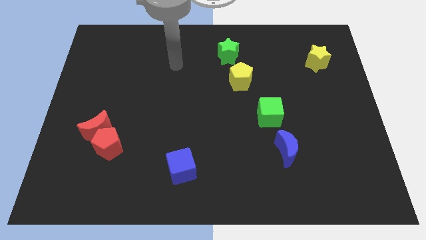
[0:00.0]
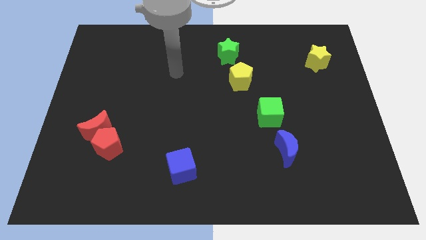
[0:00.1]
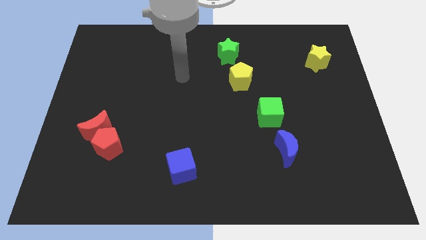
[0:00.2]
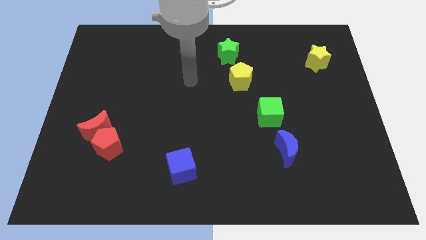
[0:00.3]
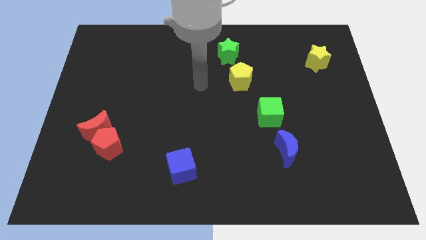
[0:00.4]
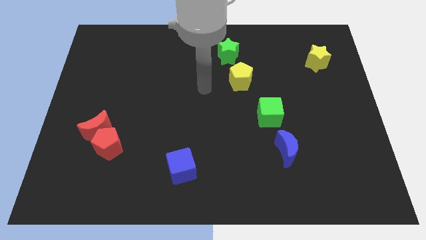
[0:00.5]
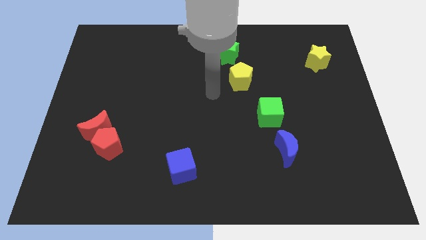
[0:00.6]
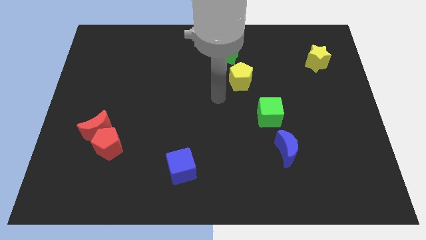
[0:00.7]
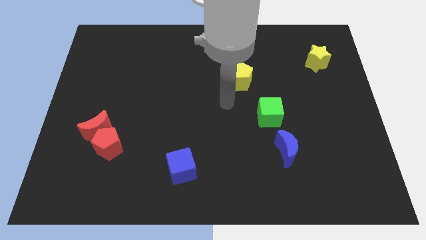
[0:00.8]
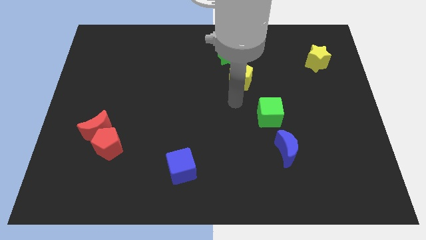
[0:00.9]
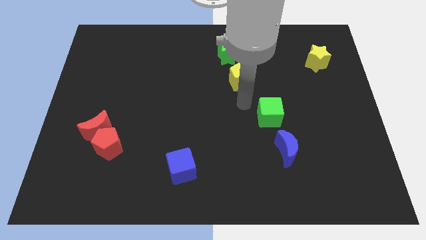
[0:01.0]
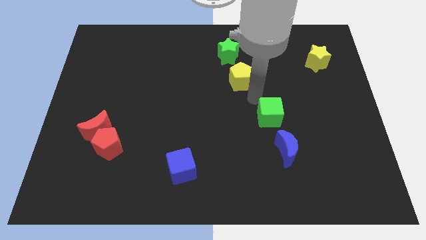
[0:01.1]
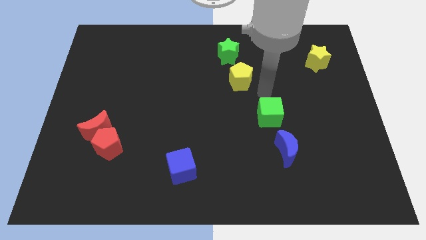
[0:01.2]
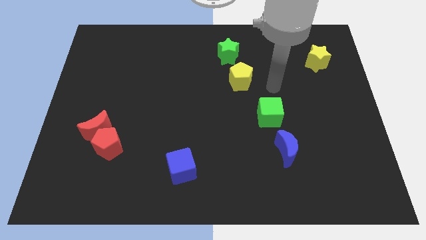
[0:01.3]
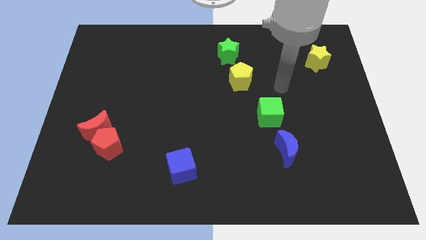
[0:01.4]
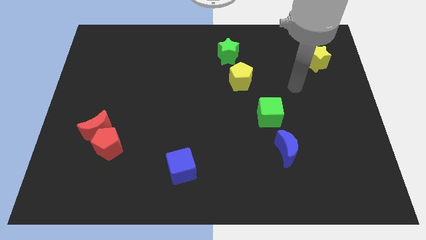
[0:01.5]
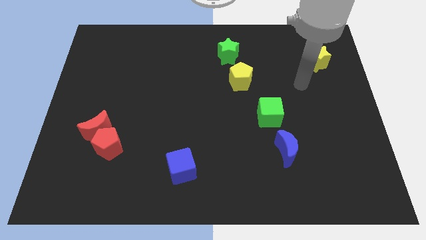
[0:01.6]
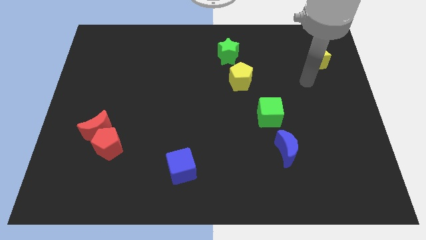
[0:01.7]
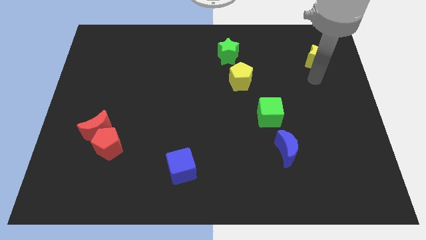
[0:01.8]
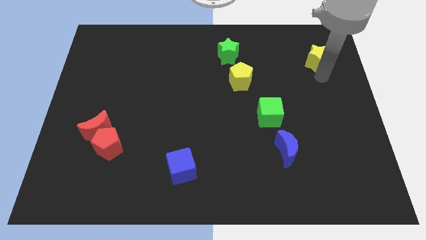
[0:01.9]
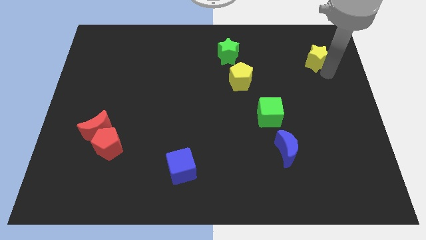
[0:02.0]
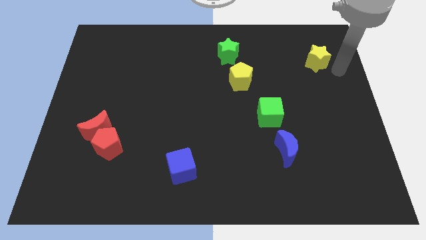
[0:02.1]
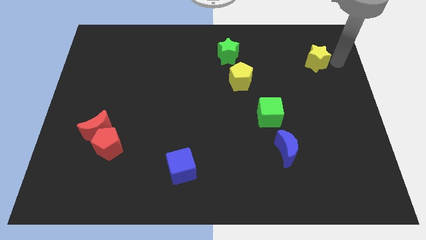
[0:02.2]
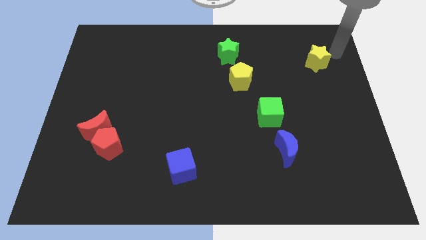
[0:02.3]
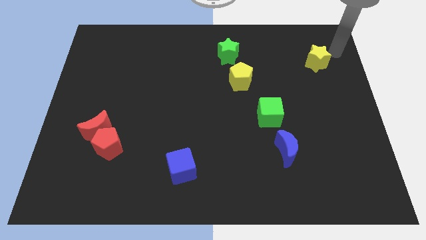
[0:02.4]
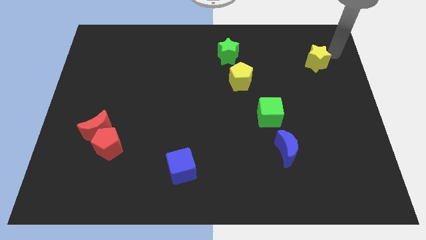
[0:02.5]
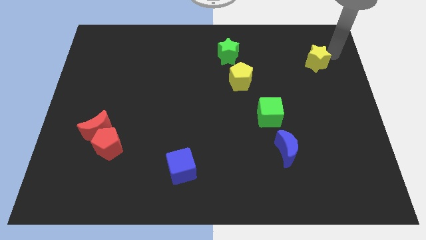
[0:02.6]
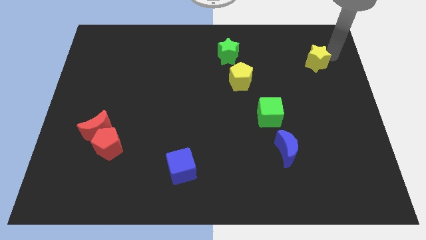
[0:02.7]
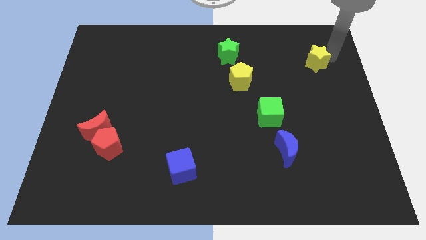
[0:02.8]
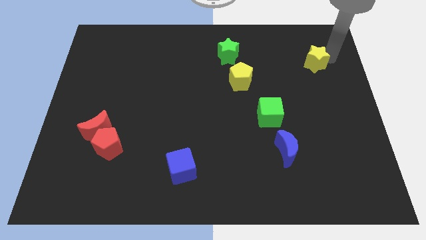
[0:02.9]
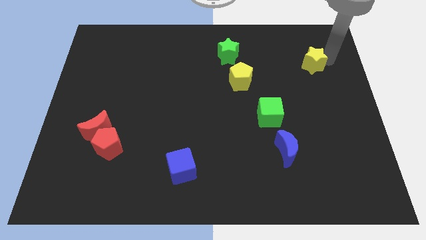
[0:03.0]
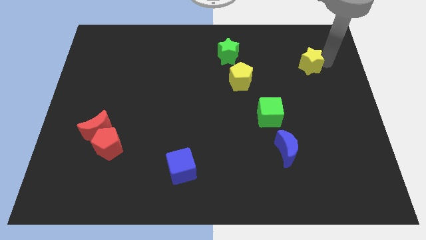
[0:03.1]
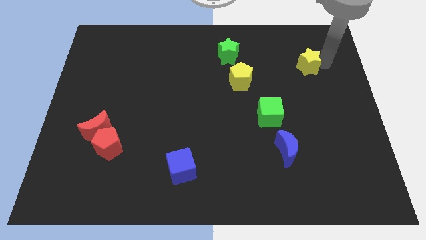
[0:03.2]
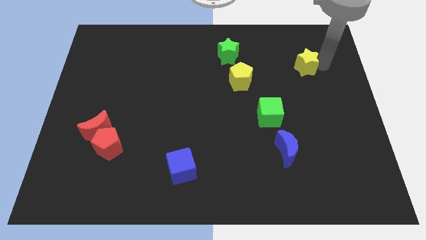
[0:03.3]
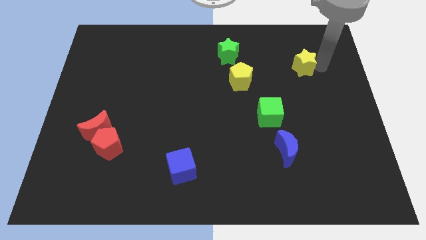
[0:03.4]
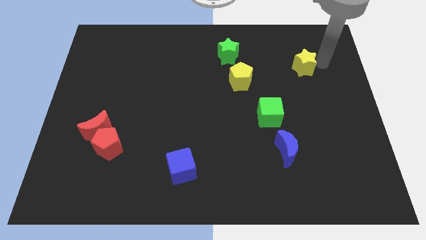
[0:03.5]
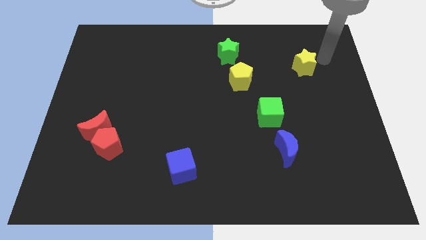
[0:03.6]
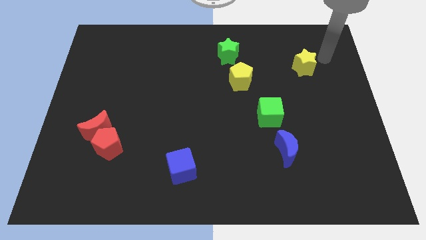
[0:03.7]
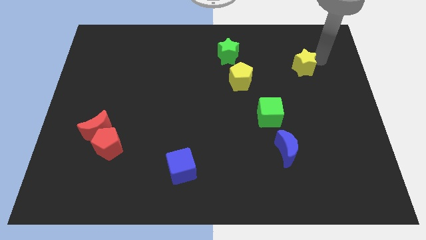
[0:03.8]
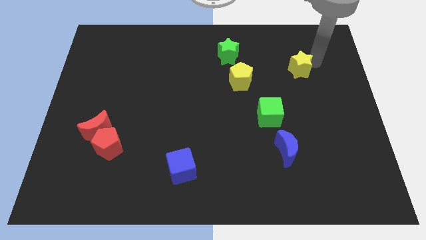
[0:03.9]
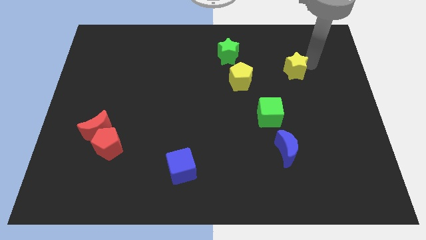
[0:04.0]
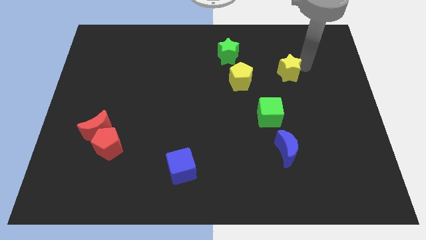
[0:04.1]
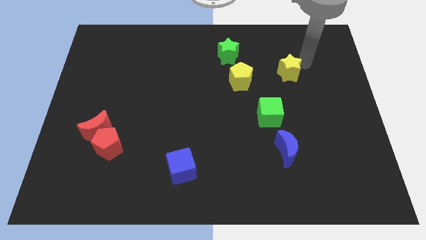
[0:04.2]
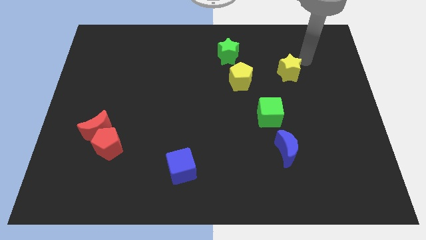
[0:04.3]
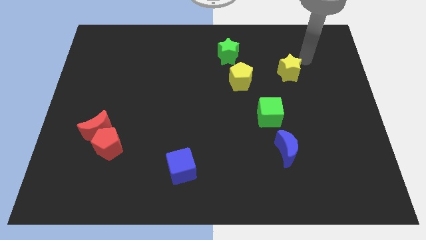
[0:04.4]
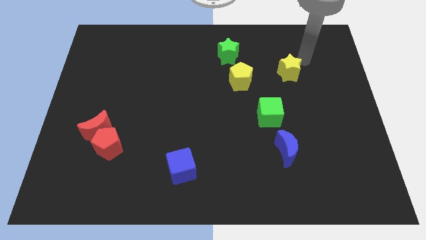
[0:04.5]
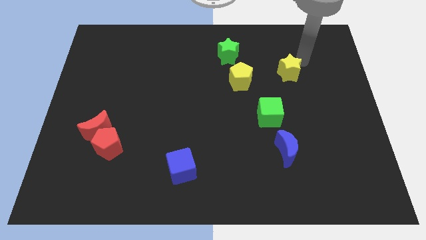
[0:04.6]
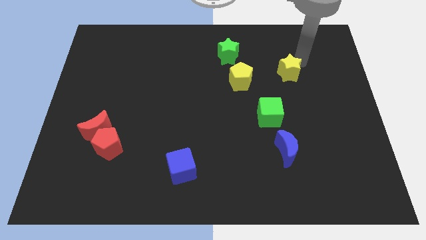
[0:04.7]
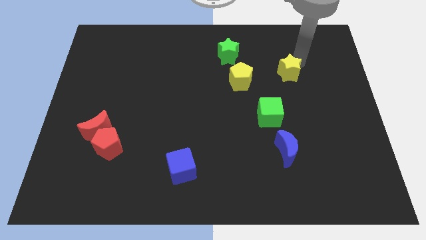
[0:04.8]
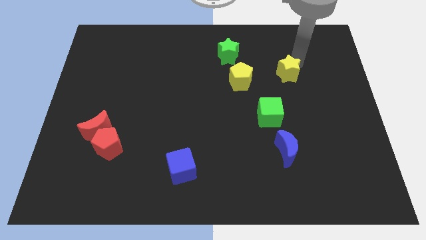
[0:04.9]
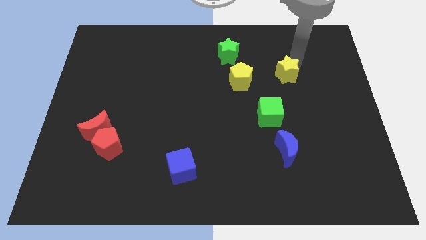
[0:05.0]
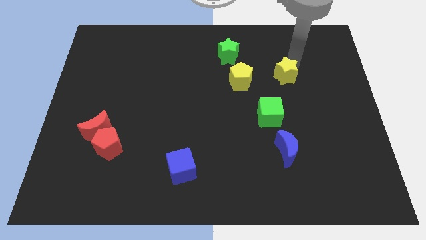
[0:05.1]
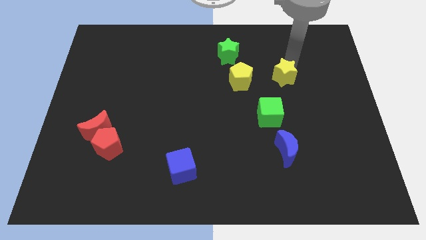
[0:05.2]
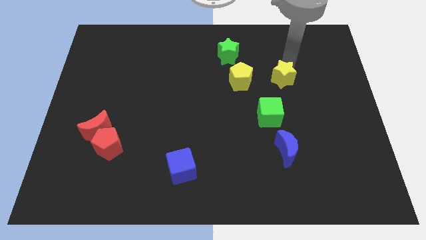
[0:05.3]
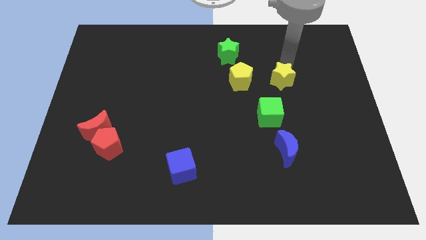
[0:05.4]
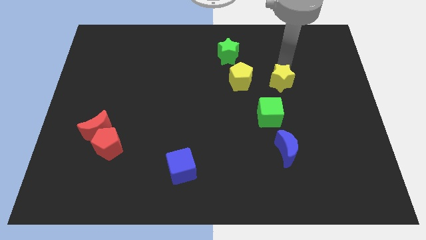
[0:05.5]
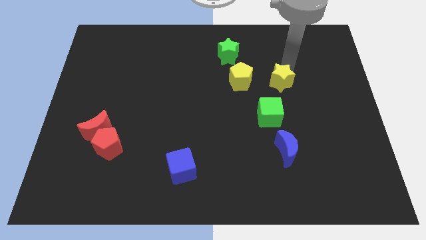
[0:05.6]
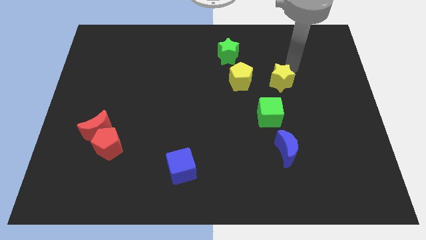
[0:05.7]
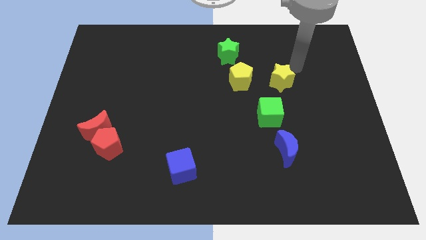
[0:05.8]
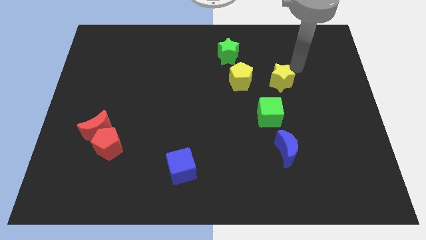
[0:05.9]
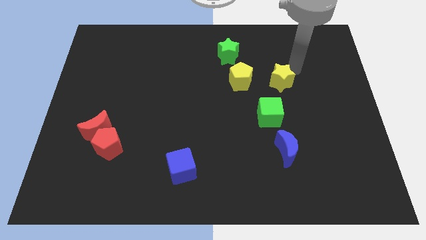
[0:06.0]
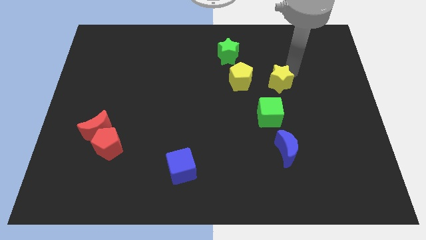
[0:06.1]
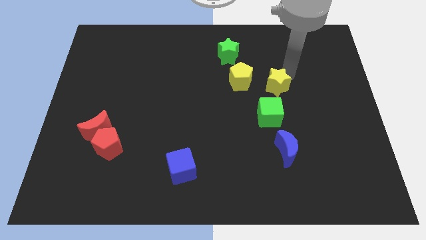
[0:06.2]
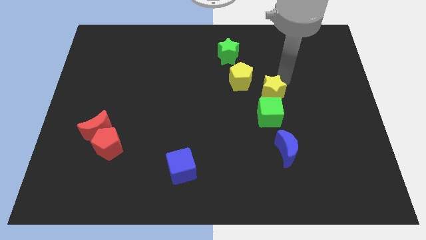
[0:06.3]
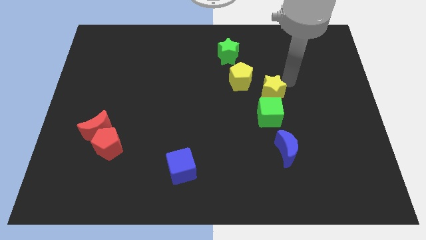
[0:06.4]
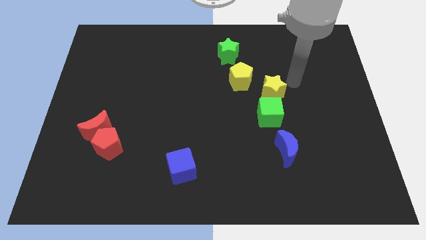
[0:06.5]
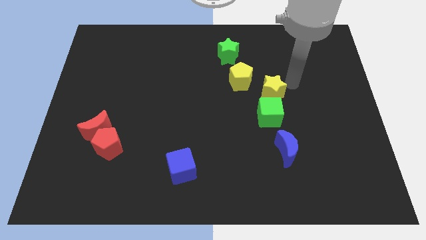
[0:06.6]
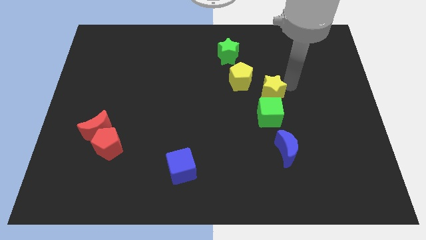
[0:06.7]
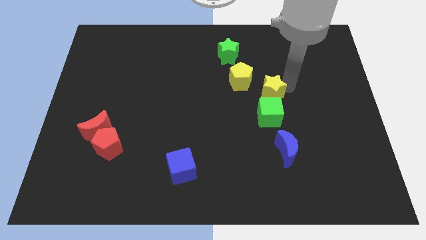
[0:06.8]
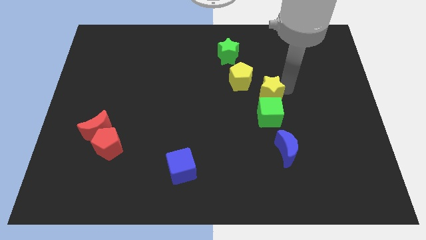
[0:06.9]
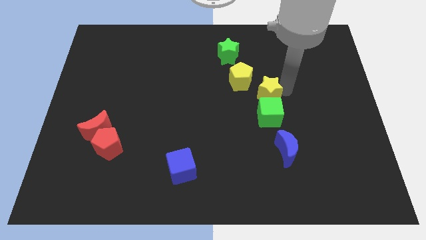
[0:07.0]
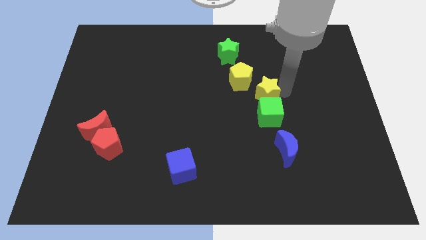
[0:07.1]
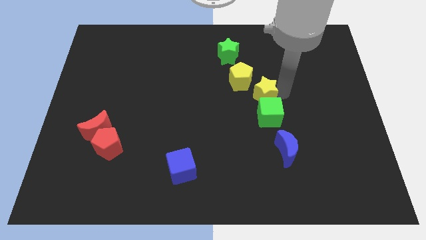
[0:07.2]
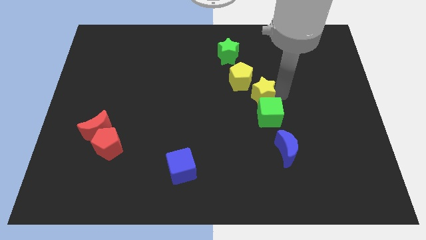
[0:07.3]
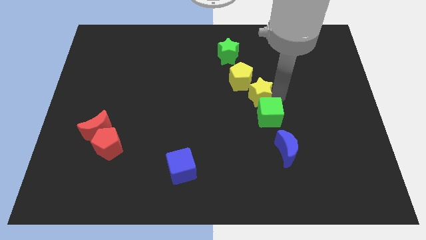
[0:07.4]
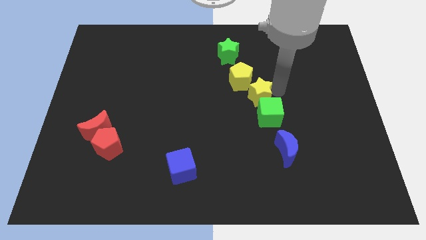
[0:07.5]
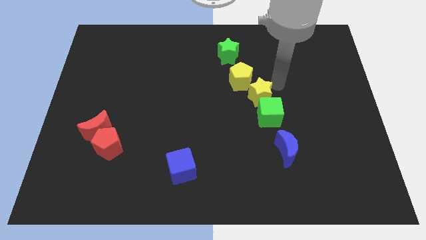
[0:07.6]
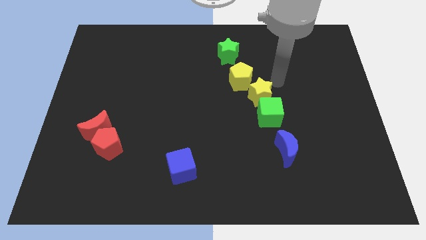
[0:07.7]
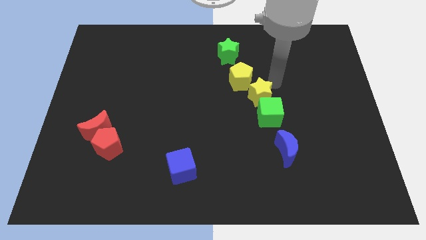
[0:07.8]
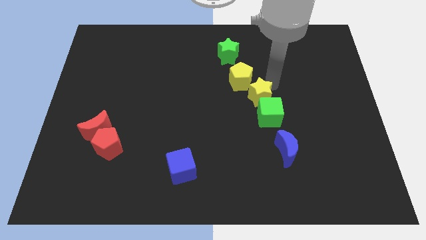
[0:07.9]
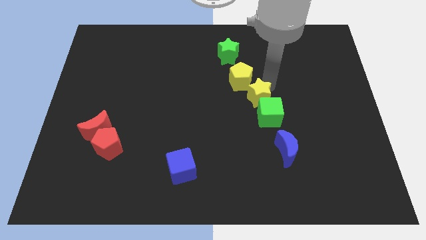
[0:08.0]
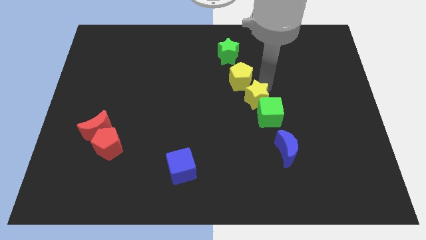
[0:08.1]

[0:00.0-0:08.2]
slide the yellow star down and to the left diagonally
